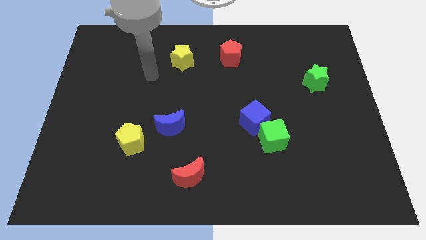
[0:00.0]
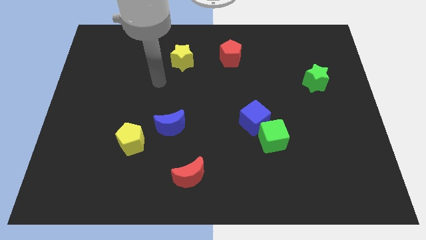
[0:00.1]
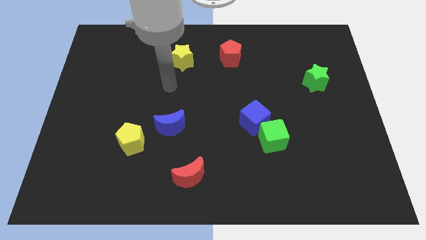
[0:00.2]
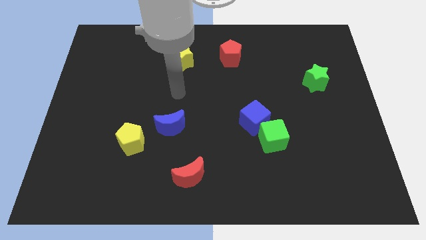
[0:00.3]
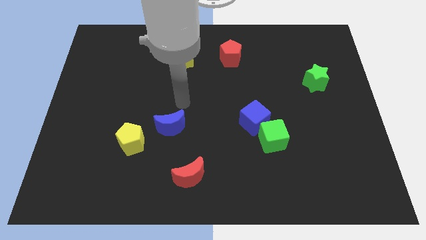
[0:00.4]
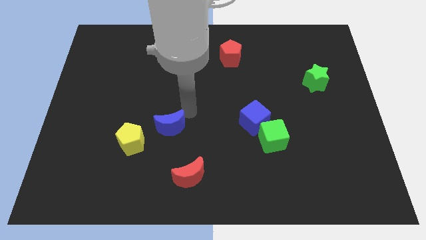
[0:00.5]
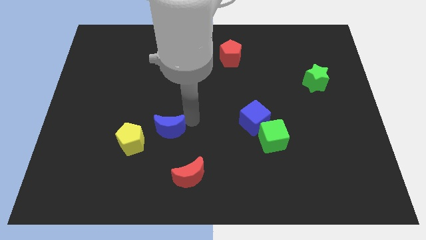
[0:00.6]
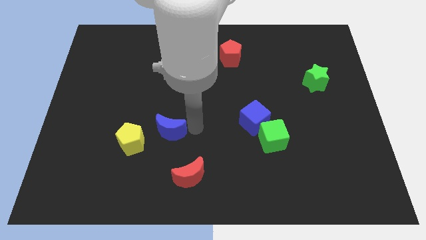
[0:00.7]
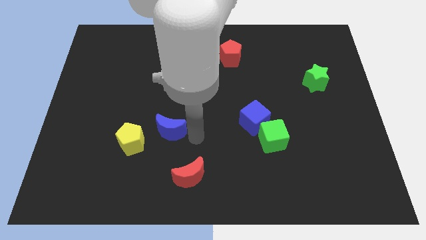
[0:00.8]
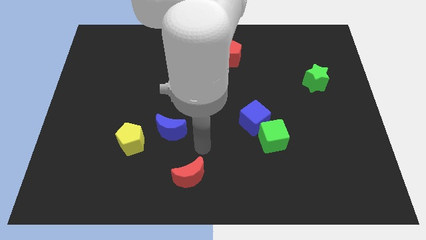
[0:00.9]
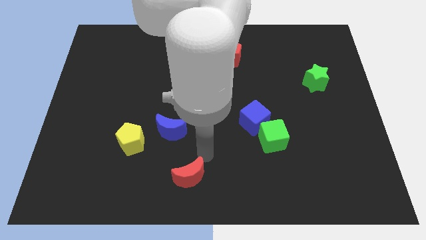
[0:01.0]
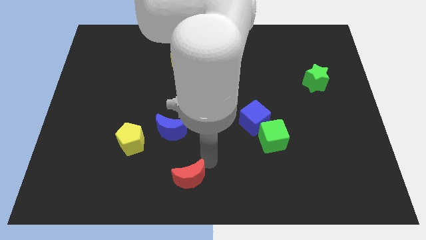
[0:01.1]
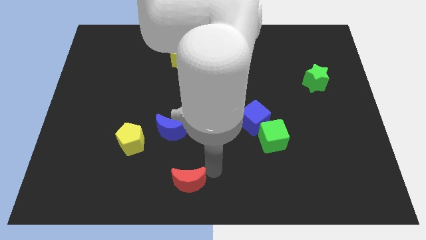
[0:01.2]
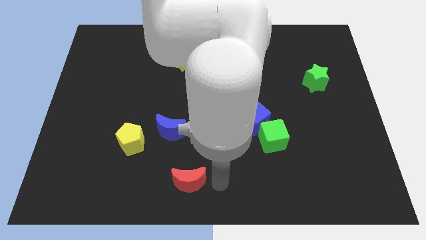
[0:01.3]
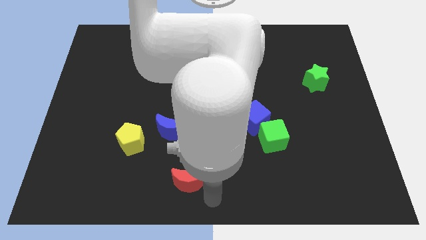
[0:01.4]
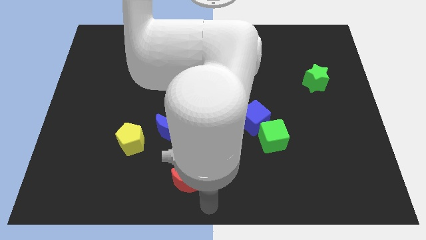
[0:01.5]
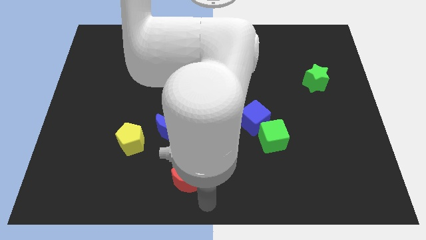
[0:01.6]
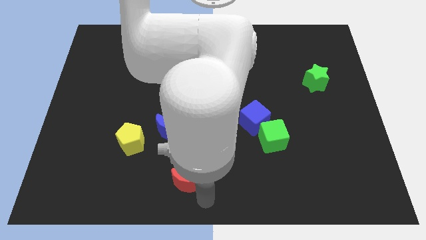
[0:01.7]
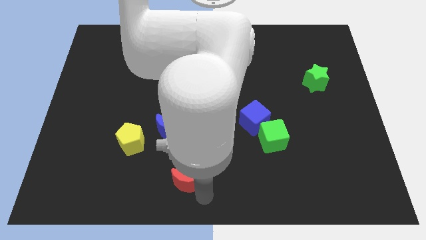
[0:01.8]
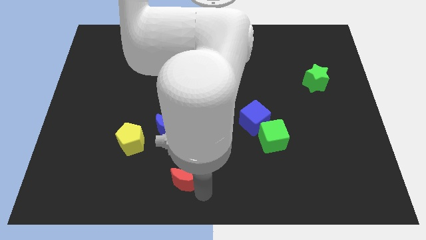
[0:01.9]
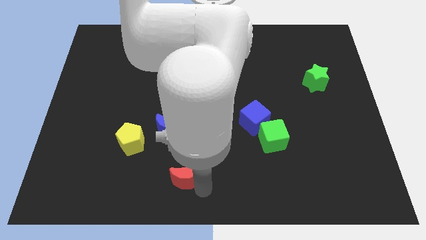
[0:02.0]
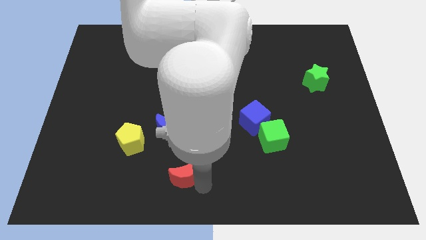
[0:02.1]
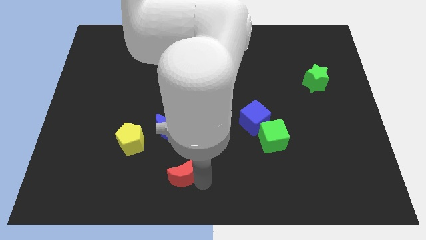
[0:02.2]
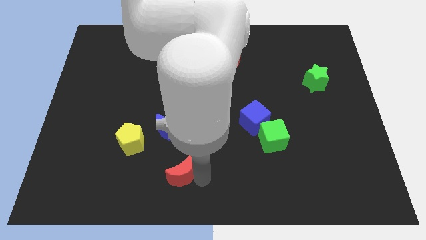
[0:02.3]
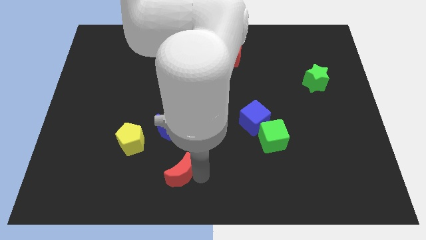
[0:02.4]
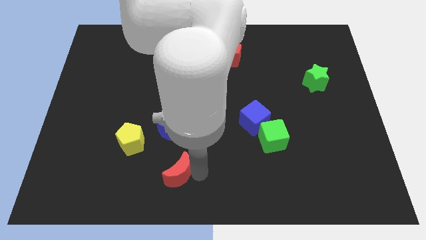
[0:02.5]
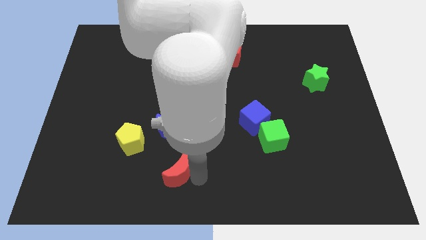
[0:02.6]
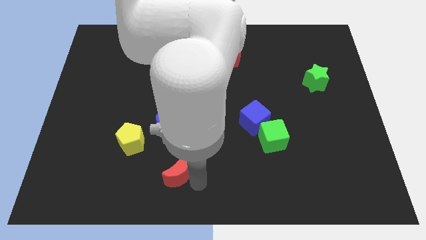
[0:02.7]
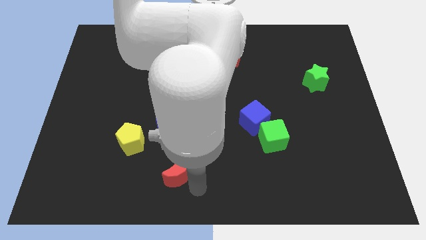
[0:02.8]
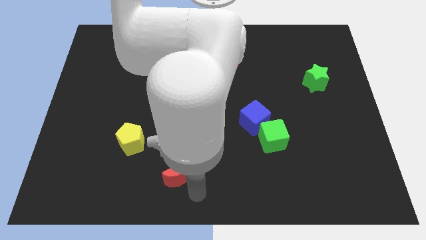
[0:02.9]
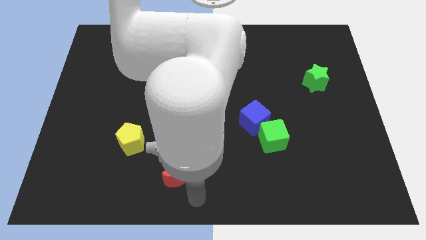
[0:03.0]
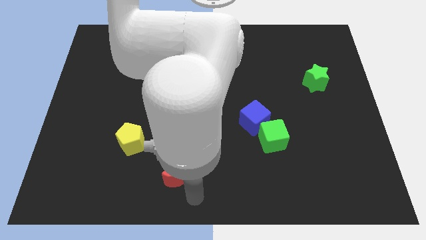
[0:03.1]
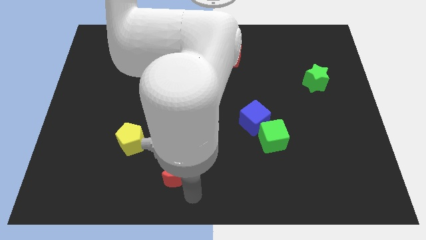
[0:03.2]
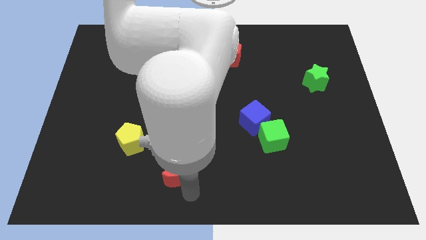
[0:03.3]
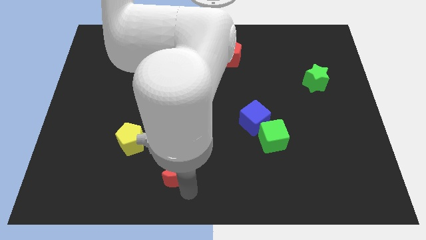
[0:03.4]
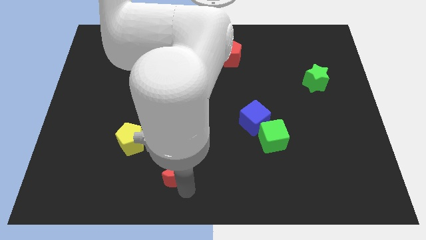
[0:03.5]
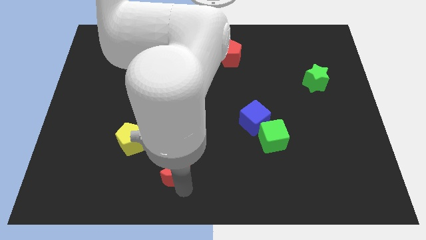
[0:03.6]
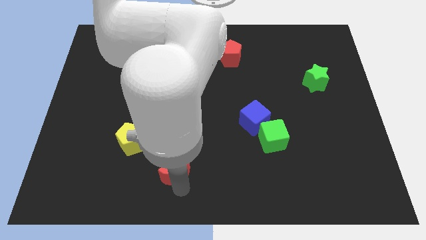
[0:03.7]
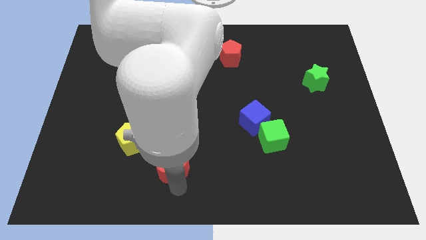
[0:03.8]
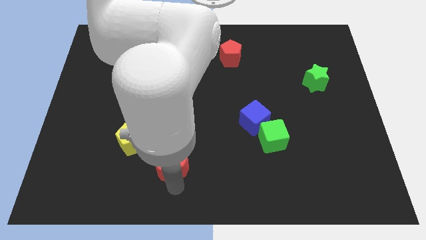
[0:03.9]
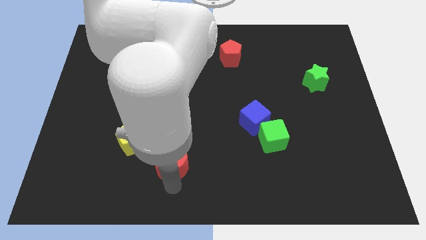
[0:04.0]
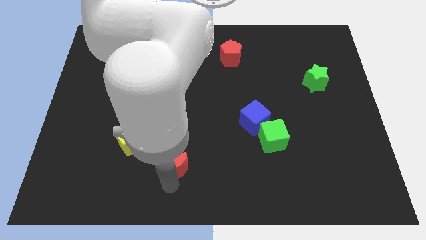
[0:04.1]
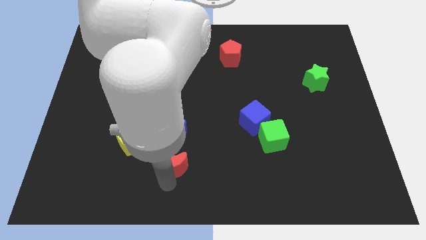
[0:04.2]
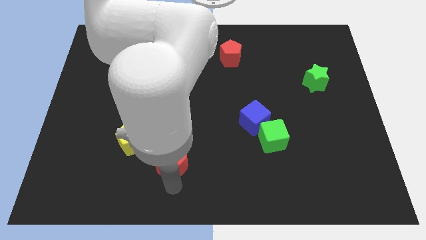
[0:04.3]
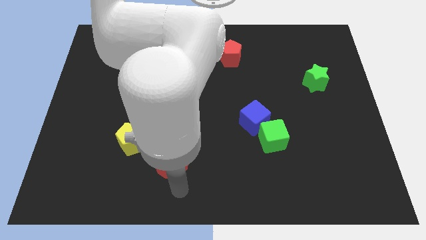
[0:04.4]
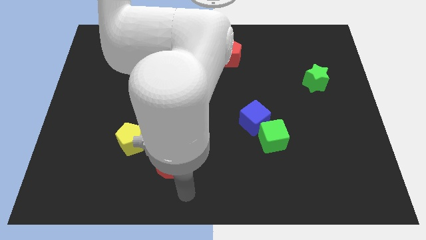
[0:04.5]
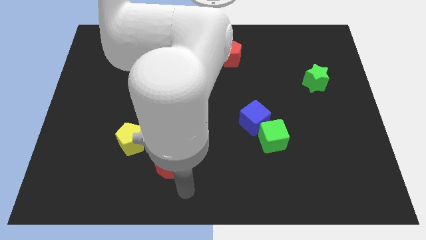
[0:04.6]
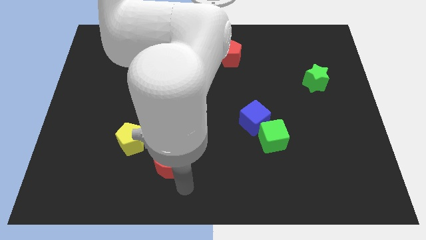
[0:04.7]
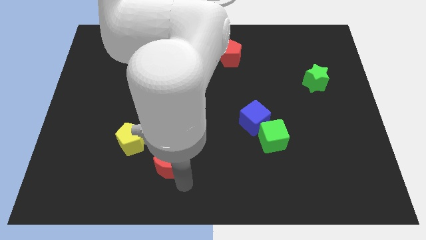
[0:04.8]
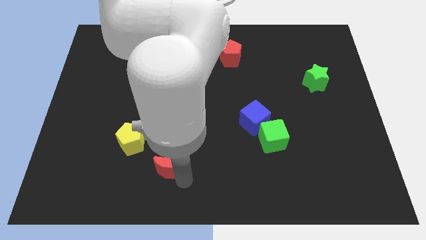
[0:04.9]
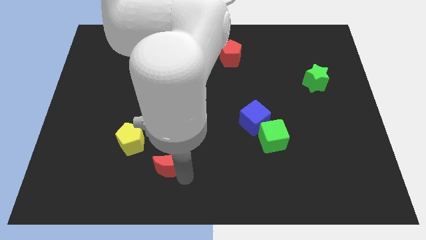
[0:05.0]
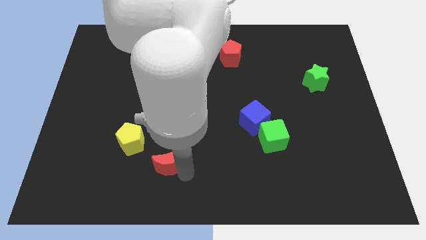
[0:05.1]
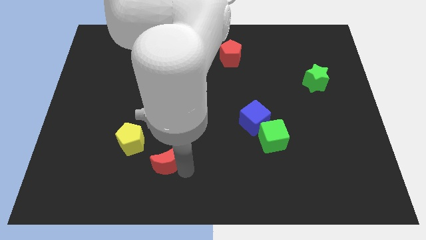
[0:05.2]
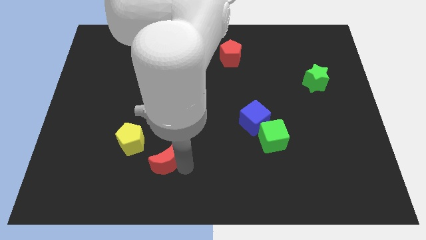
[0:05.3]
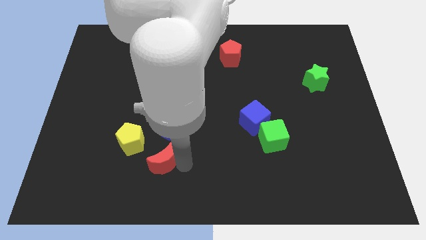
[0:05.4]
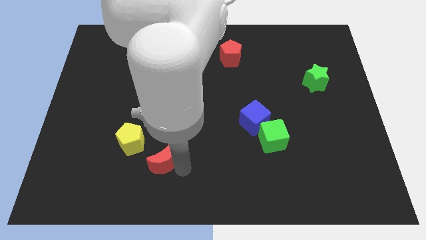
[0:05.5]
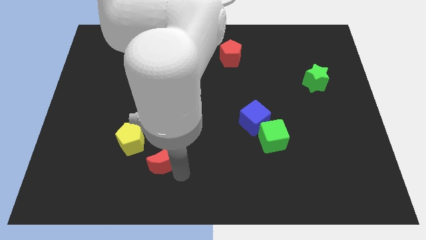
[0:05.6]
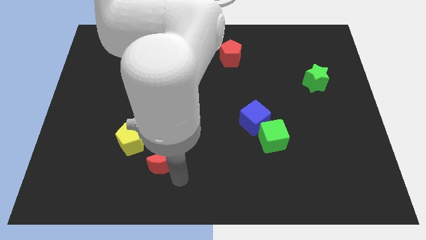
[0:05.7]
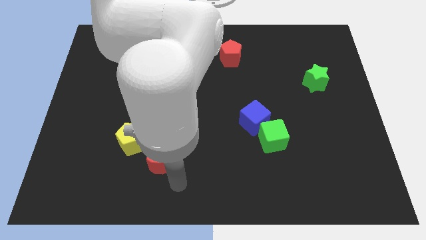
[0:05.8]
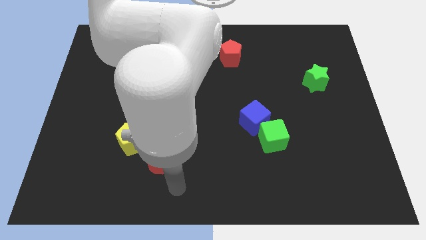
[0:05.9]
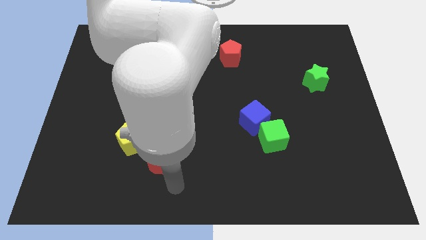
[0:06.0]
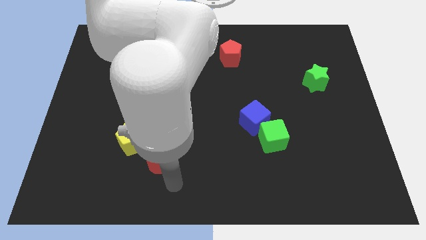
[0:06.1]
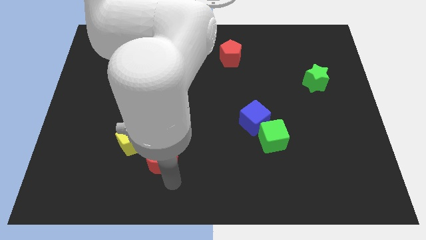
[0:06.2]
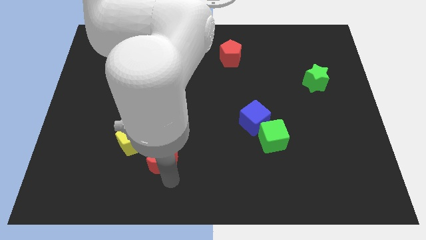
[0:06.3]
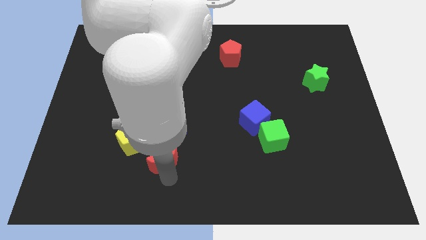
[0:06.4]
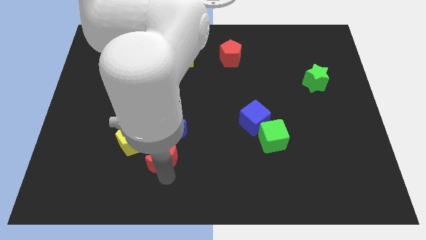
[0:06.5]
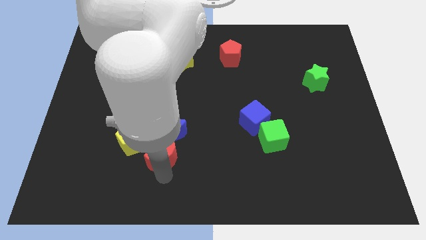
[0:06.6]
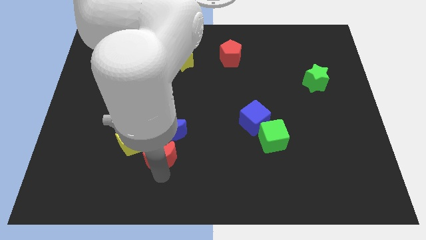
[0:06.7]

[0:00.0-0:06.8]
move the red moon up and left diagonally somewhat

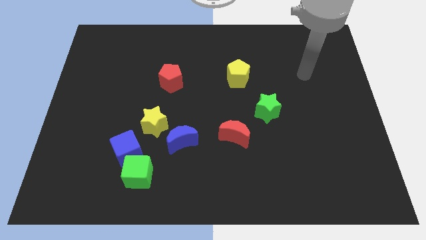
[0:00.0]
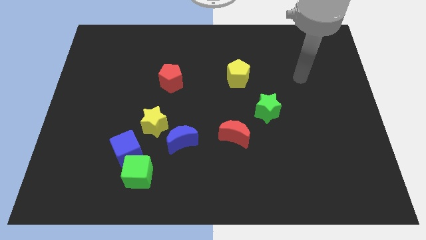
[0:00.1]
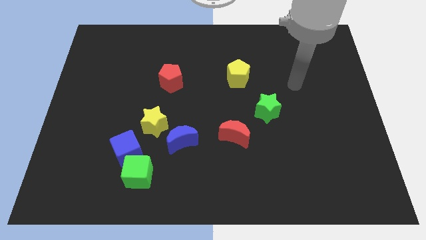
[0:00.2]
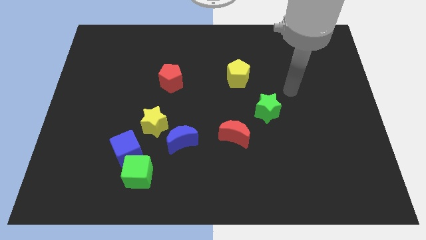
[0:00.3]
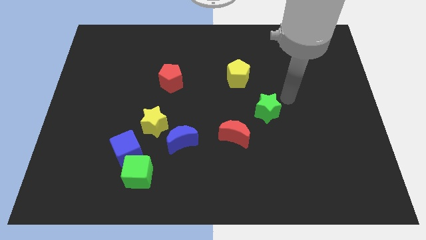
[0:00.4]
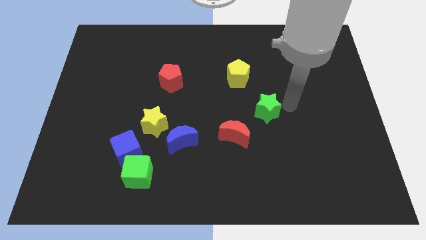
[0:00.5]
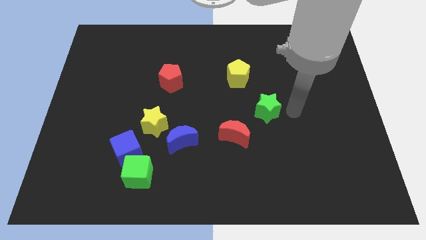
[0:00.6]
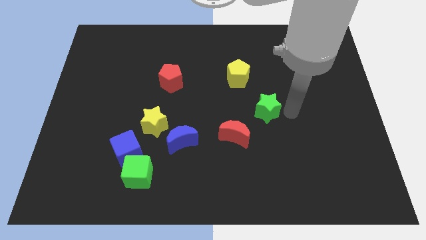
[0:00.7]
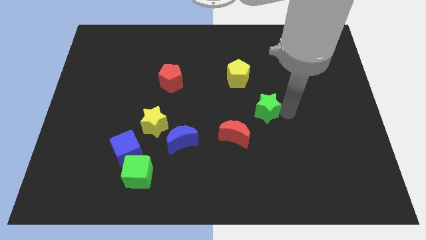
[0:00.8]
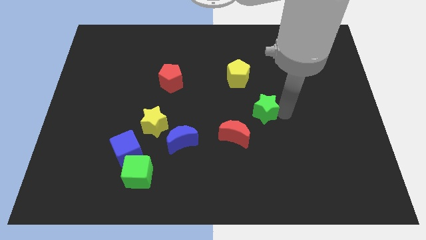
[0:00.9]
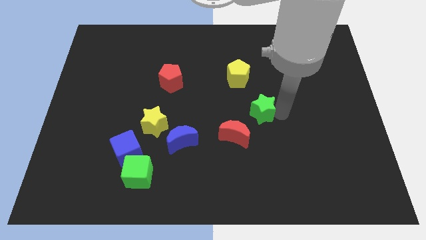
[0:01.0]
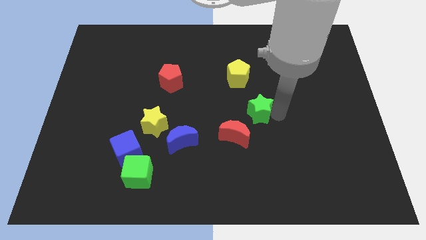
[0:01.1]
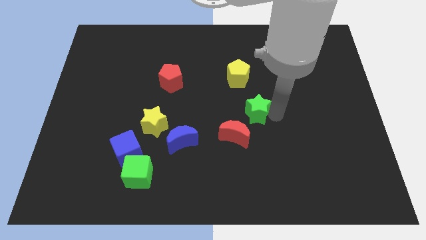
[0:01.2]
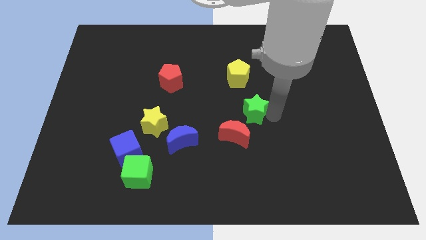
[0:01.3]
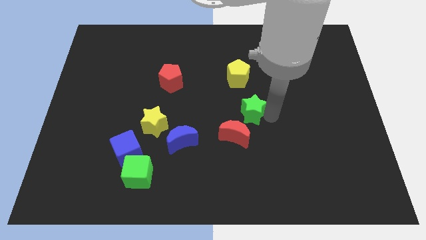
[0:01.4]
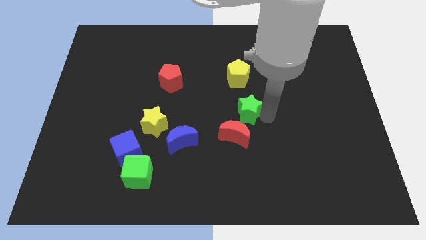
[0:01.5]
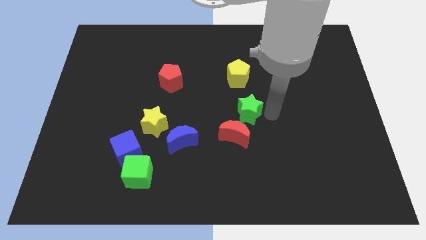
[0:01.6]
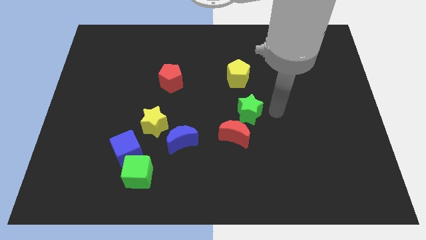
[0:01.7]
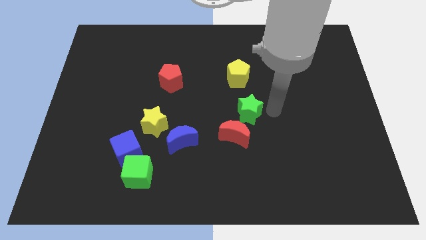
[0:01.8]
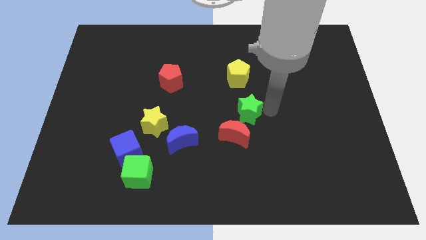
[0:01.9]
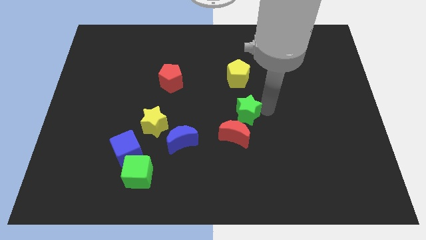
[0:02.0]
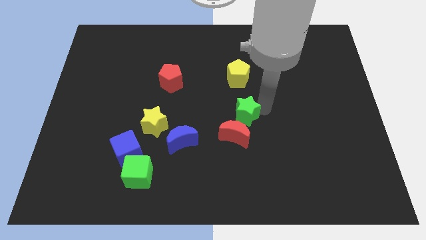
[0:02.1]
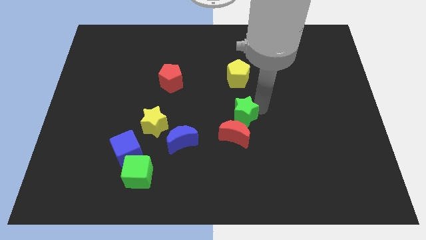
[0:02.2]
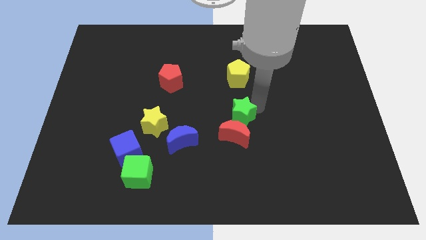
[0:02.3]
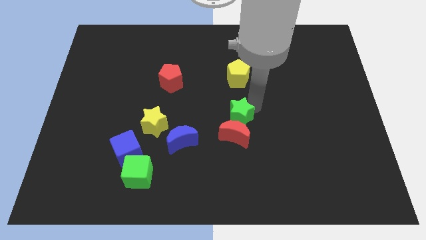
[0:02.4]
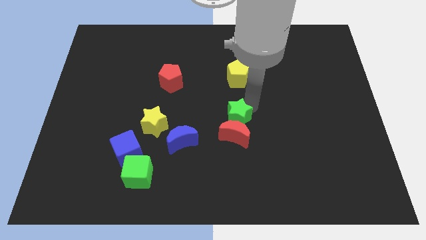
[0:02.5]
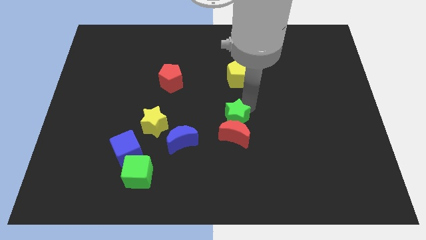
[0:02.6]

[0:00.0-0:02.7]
slide the green star left somewhat
